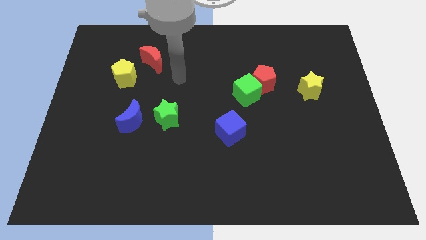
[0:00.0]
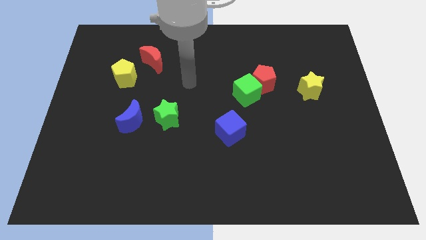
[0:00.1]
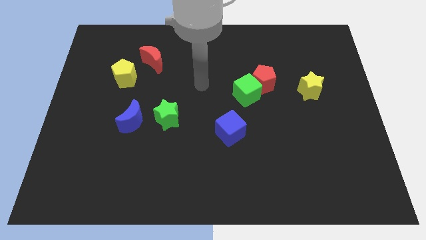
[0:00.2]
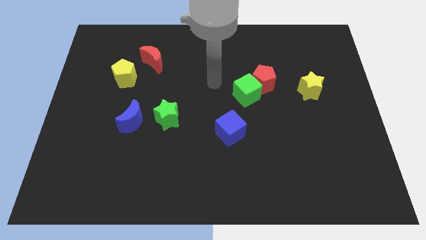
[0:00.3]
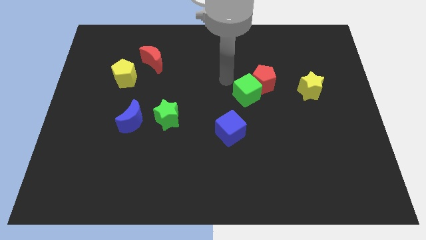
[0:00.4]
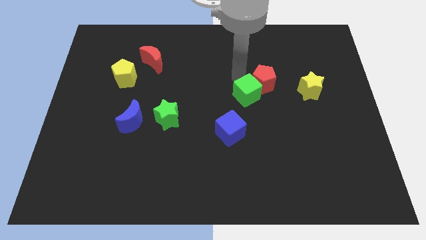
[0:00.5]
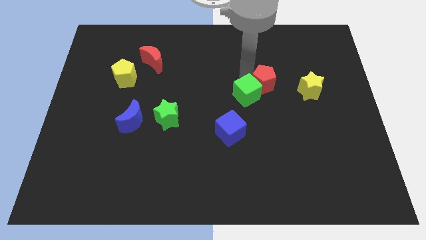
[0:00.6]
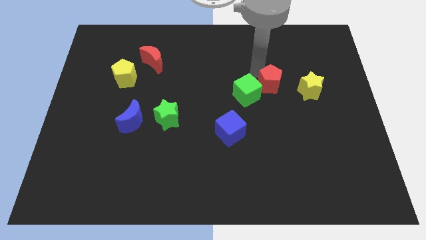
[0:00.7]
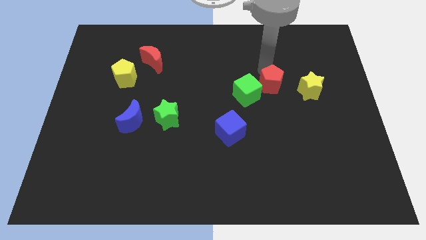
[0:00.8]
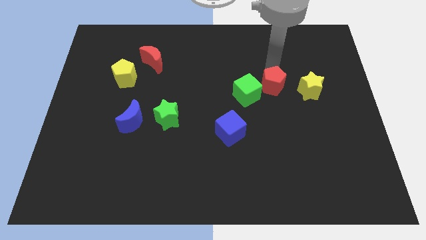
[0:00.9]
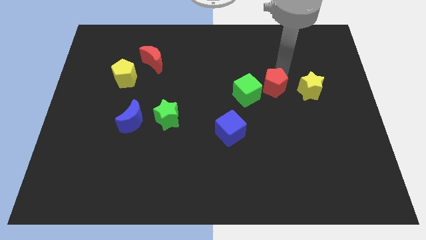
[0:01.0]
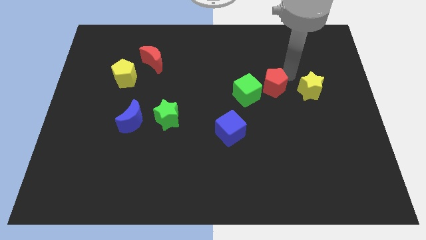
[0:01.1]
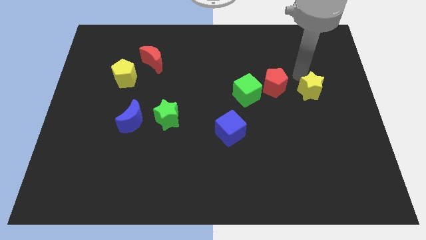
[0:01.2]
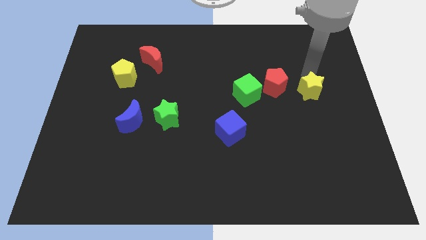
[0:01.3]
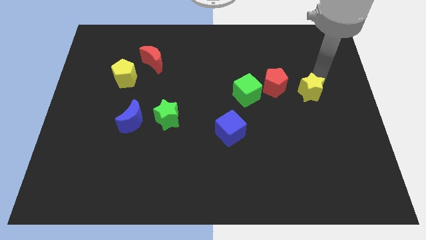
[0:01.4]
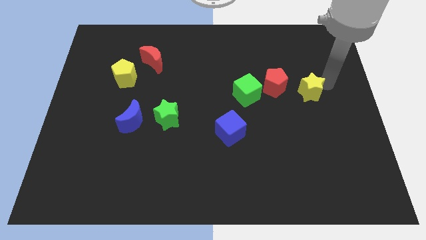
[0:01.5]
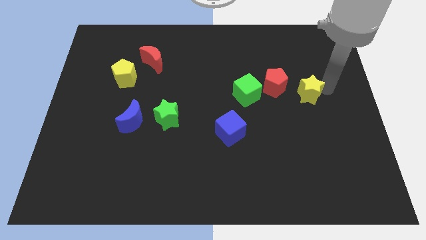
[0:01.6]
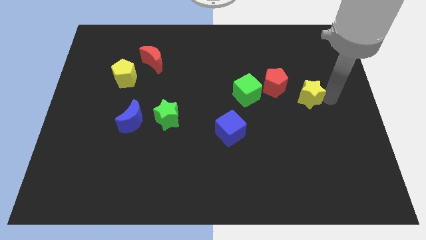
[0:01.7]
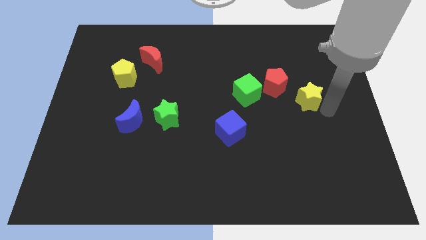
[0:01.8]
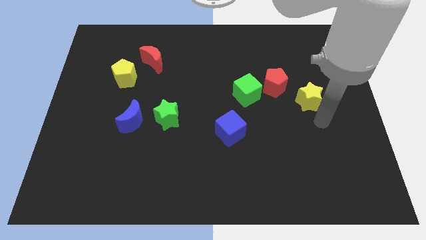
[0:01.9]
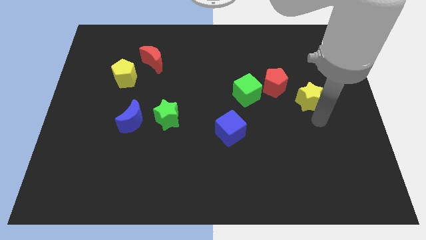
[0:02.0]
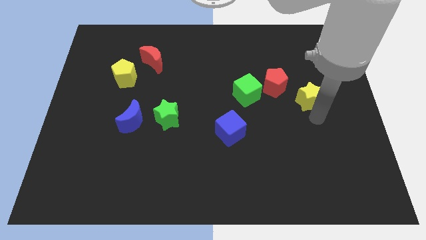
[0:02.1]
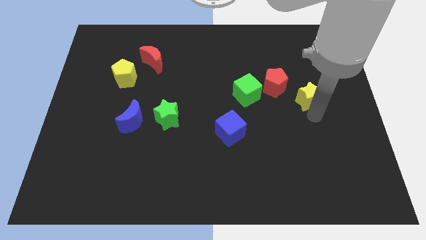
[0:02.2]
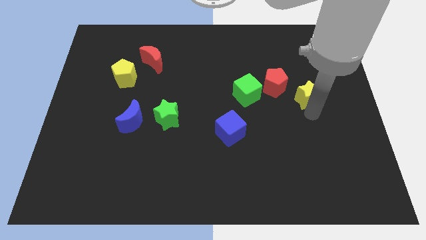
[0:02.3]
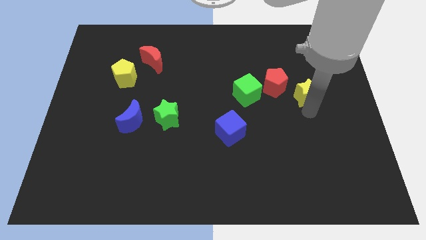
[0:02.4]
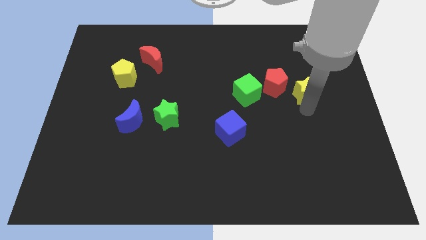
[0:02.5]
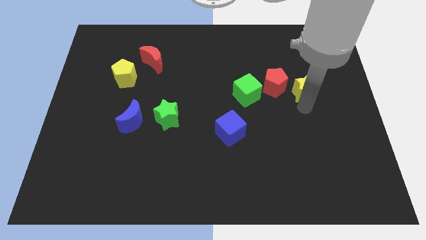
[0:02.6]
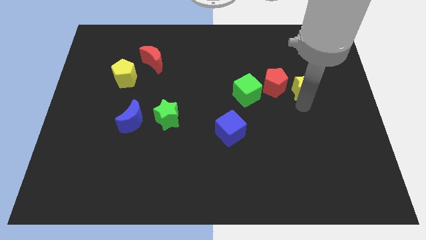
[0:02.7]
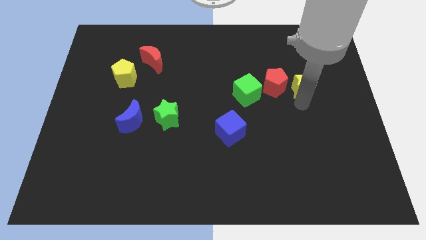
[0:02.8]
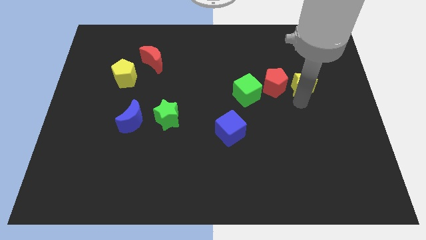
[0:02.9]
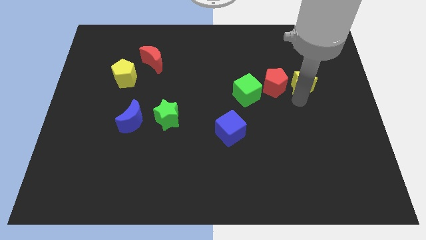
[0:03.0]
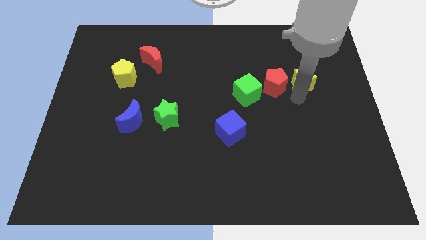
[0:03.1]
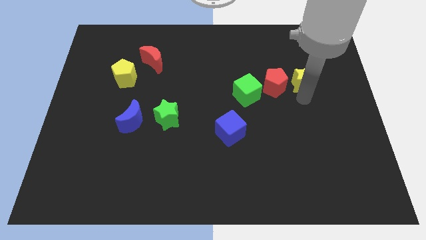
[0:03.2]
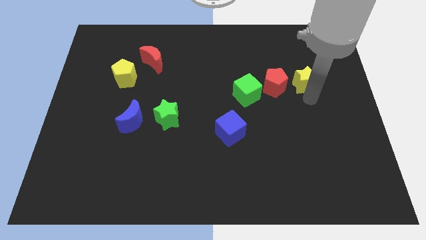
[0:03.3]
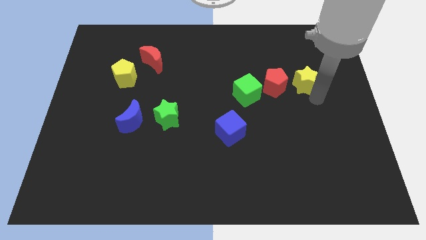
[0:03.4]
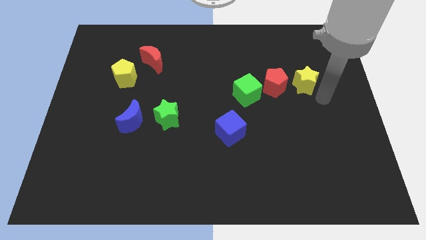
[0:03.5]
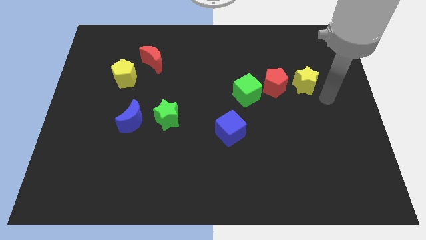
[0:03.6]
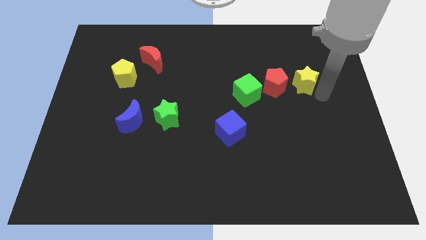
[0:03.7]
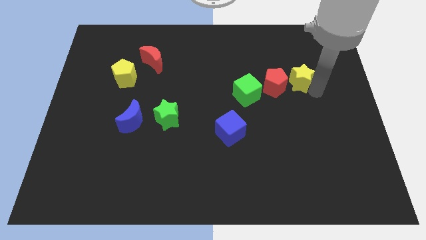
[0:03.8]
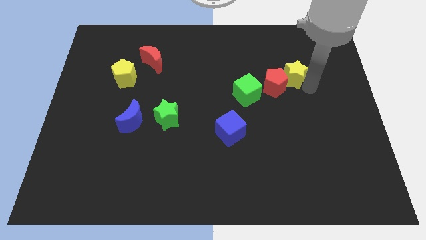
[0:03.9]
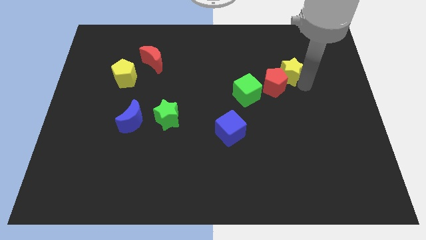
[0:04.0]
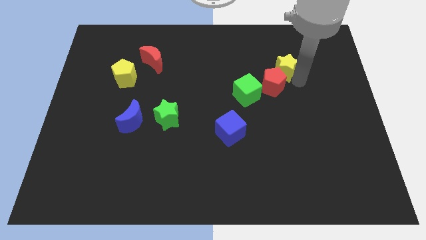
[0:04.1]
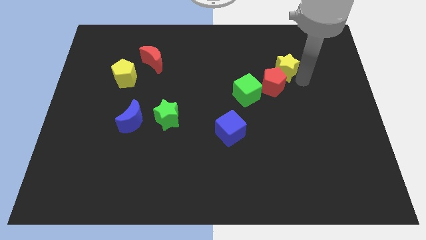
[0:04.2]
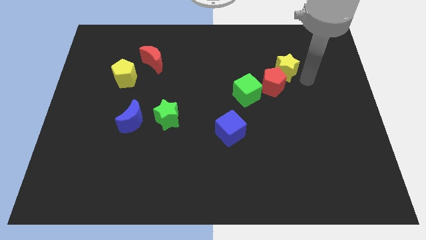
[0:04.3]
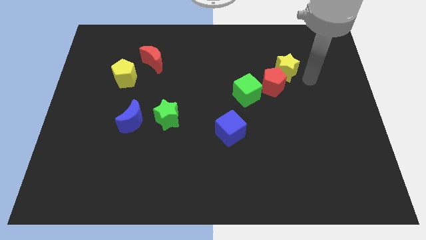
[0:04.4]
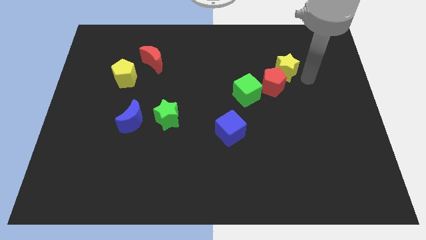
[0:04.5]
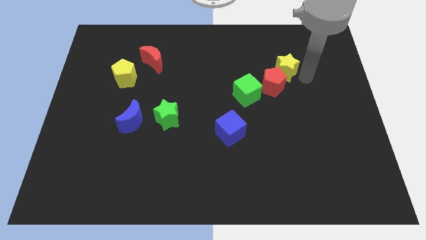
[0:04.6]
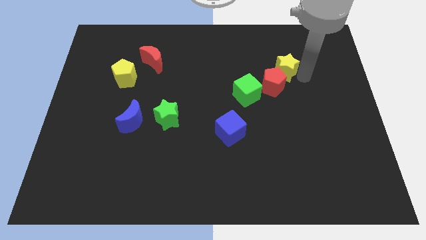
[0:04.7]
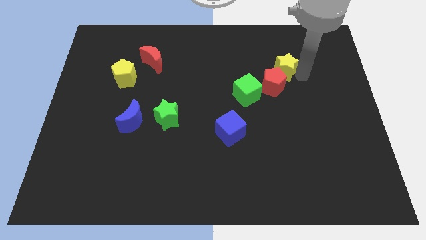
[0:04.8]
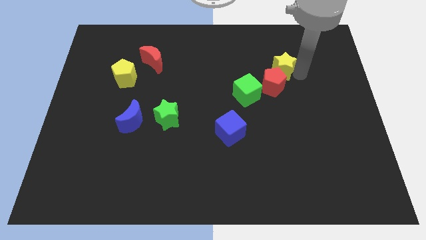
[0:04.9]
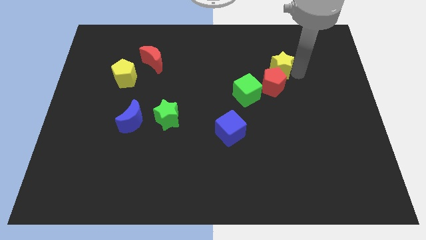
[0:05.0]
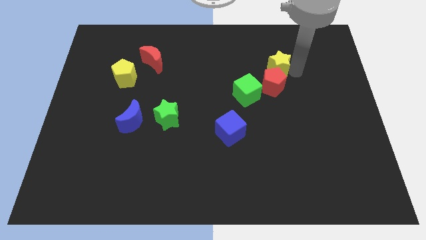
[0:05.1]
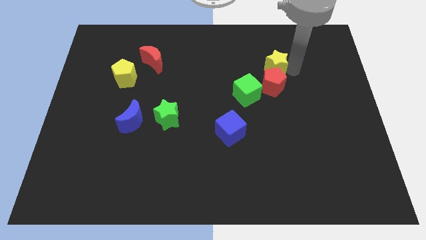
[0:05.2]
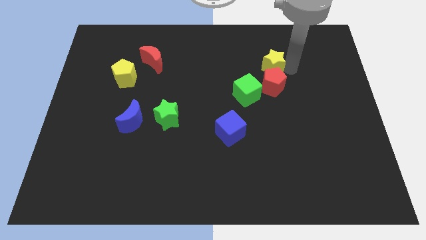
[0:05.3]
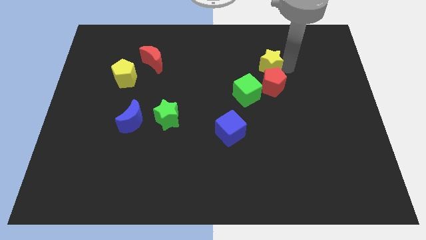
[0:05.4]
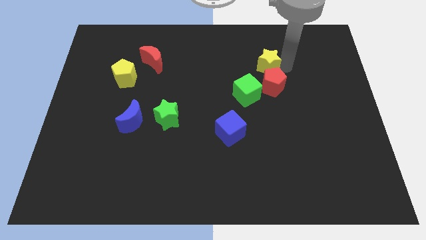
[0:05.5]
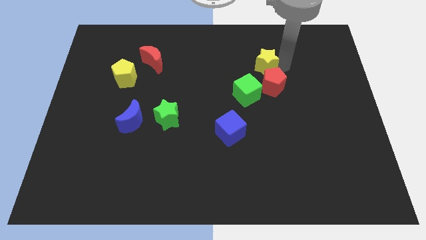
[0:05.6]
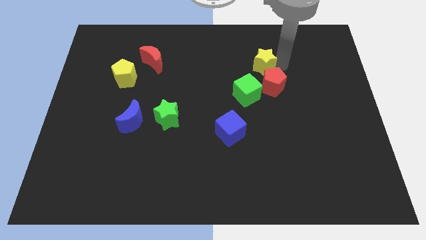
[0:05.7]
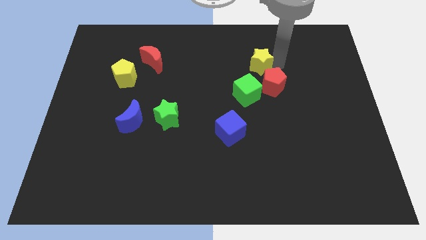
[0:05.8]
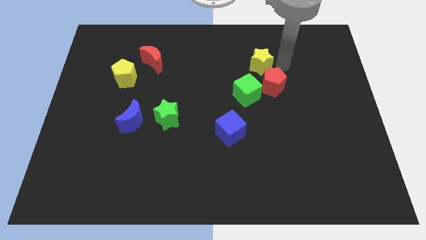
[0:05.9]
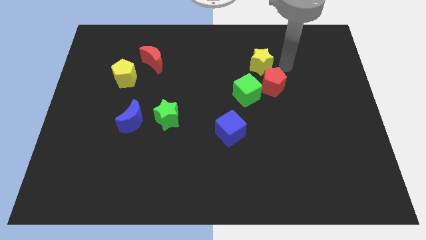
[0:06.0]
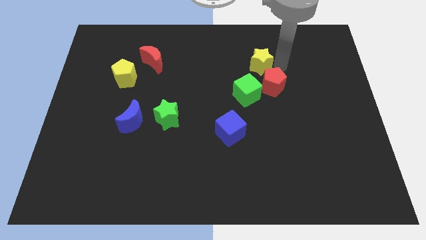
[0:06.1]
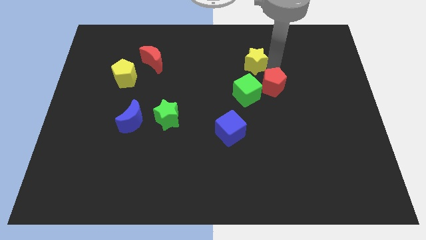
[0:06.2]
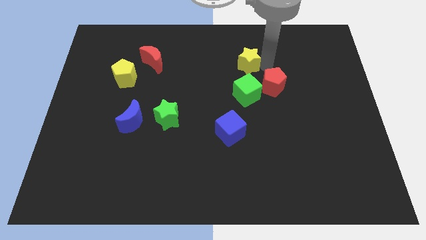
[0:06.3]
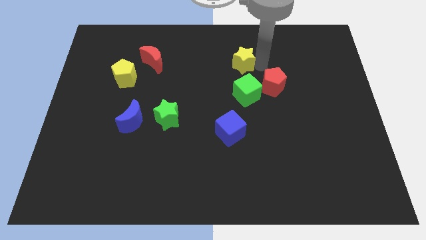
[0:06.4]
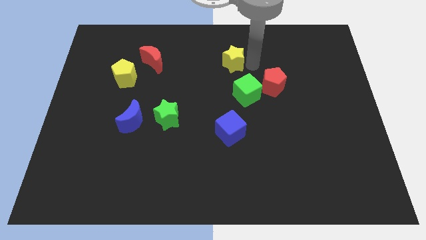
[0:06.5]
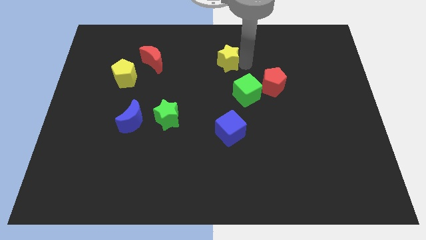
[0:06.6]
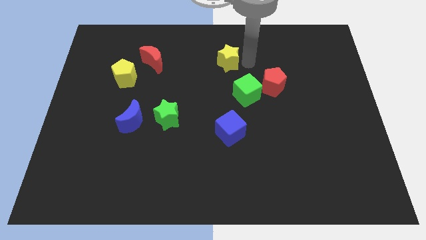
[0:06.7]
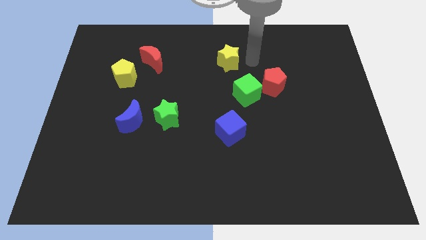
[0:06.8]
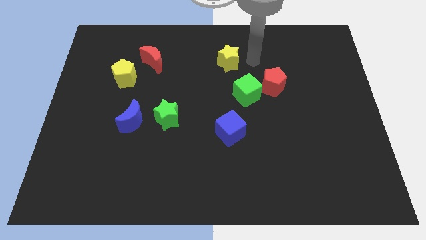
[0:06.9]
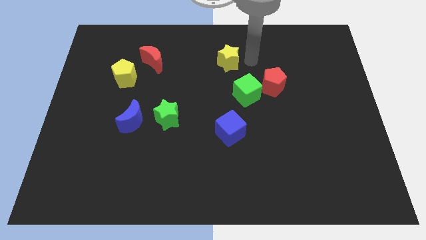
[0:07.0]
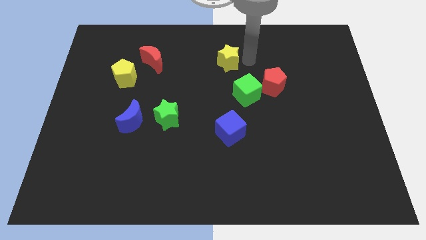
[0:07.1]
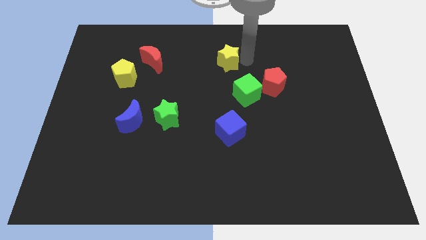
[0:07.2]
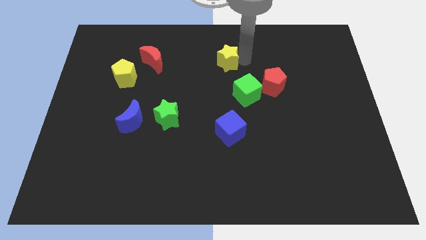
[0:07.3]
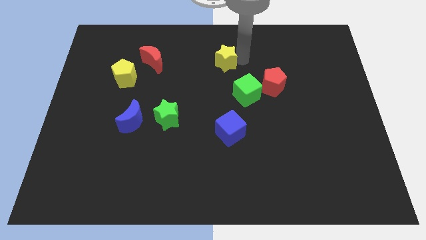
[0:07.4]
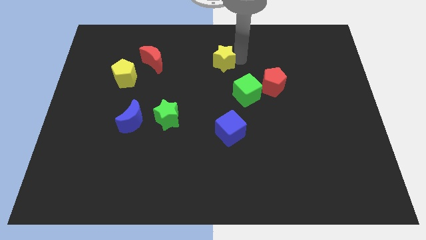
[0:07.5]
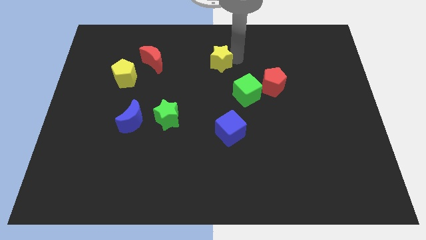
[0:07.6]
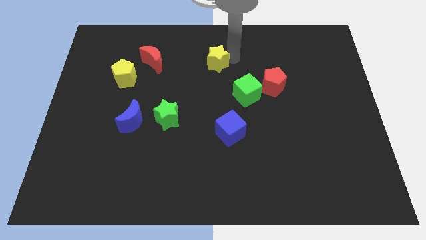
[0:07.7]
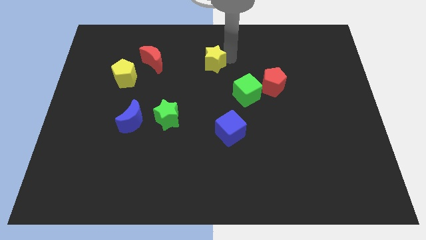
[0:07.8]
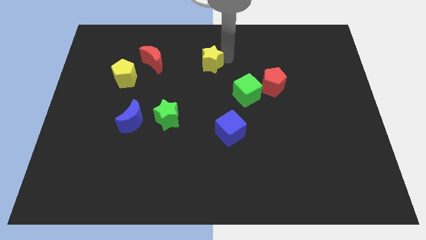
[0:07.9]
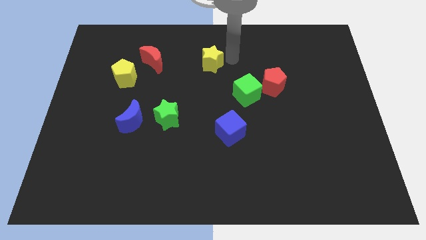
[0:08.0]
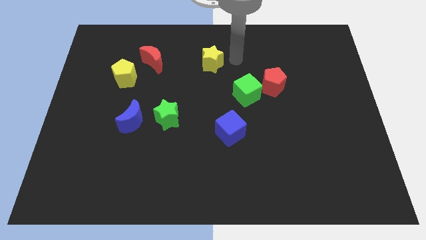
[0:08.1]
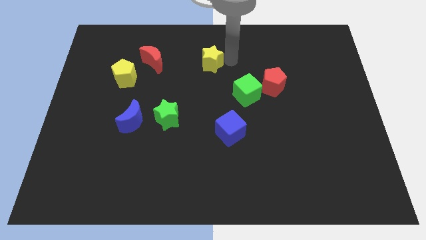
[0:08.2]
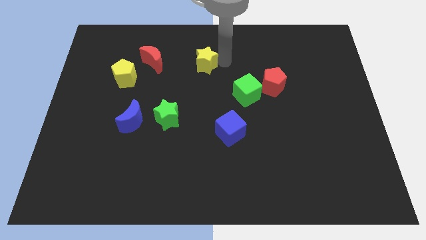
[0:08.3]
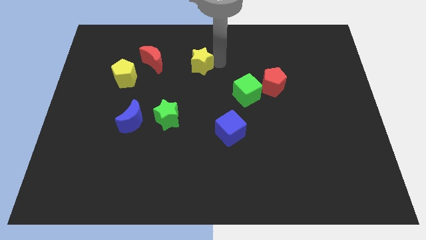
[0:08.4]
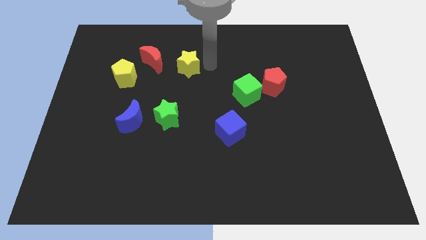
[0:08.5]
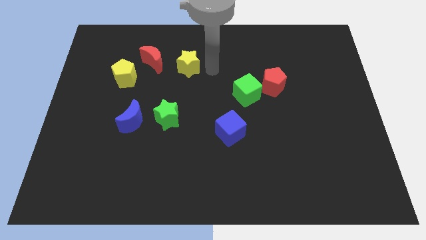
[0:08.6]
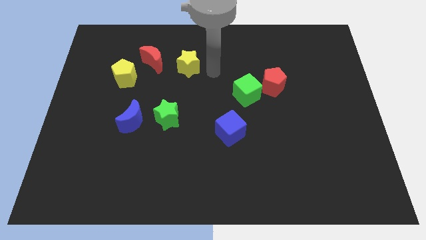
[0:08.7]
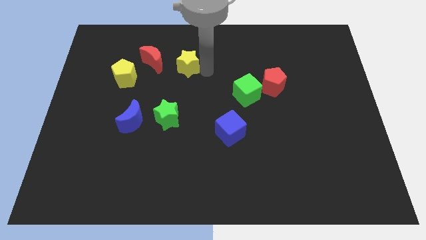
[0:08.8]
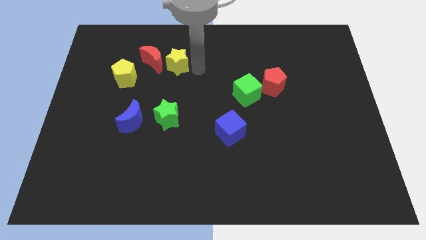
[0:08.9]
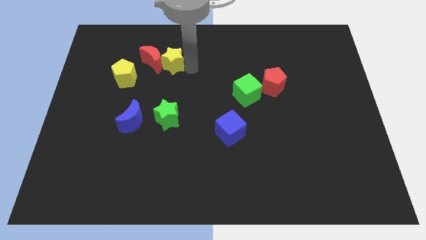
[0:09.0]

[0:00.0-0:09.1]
put the yellow star next to the red moon
